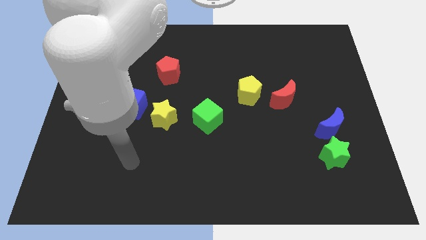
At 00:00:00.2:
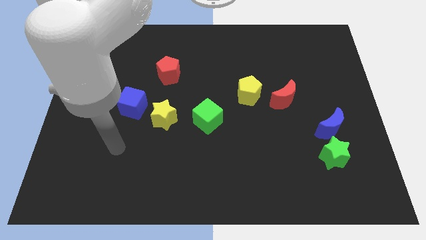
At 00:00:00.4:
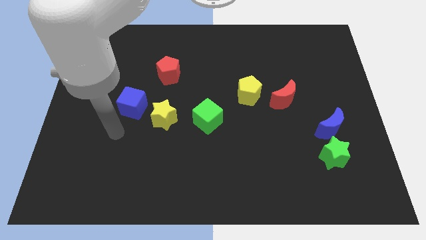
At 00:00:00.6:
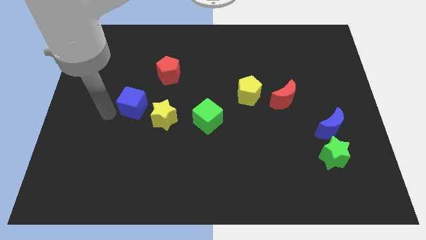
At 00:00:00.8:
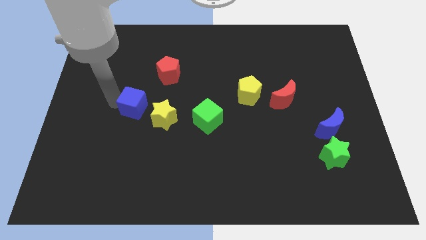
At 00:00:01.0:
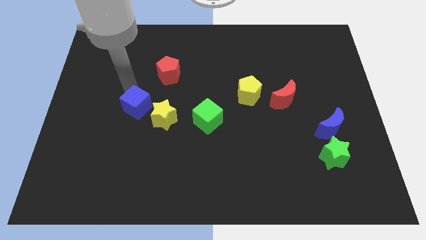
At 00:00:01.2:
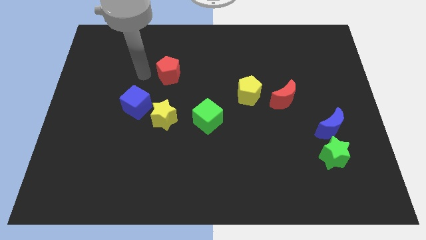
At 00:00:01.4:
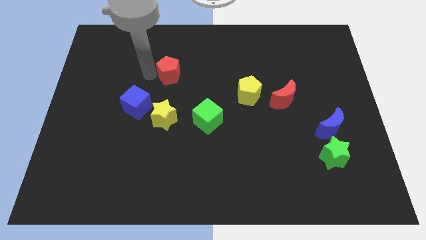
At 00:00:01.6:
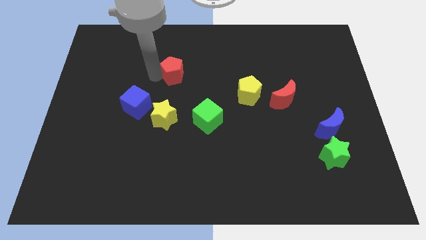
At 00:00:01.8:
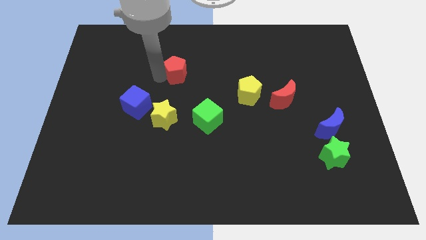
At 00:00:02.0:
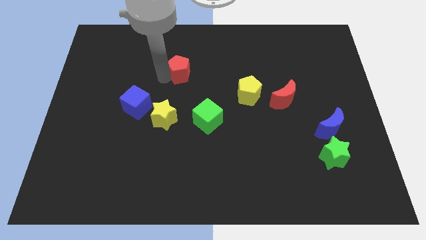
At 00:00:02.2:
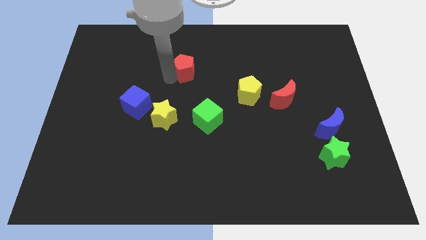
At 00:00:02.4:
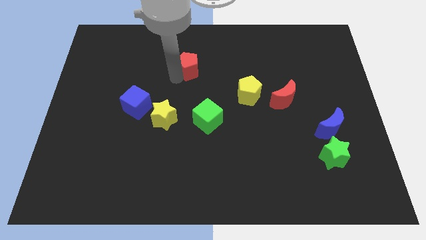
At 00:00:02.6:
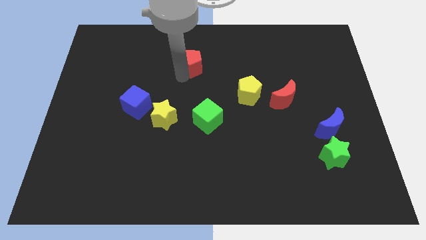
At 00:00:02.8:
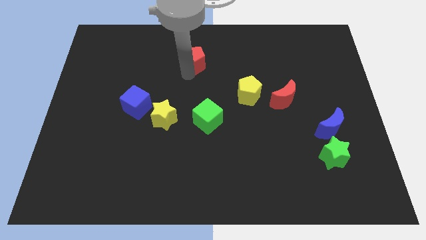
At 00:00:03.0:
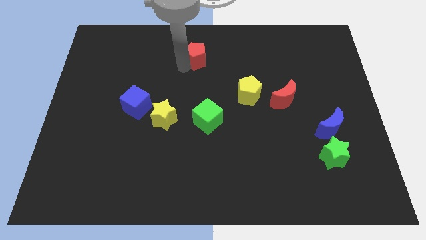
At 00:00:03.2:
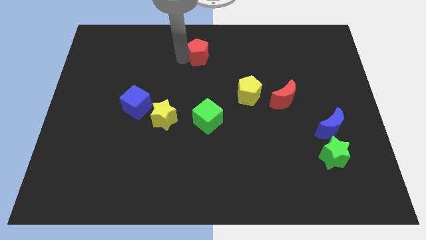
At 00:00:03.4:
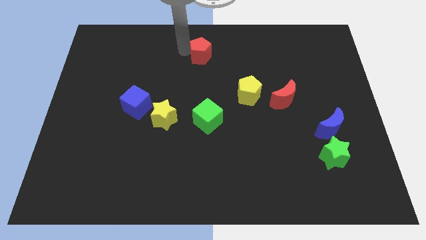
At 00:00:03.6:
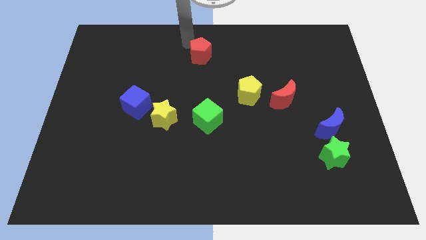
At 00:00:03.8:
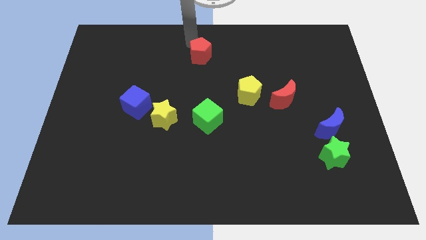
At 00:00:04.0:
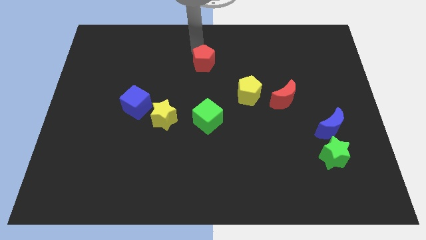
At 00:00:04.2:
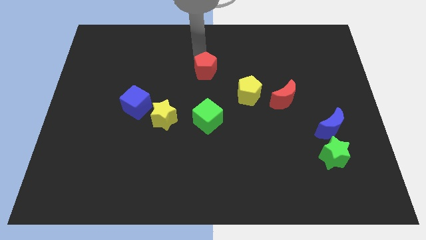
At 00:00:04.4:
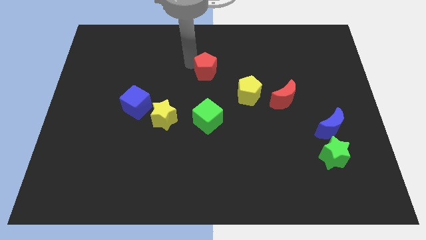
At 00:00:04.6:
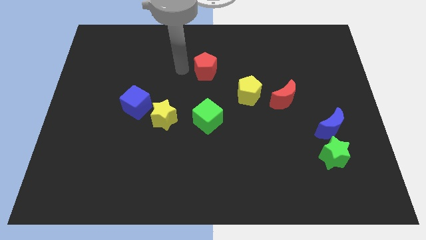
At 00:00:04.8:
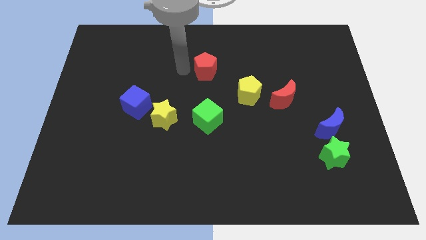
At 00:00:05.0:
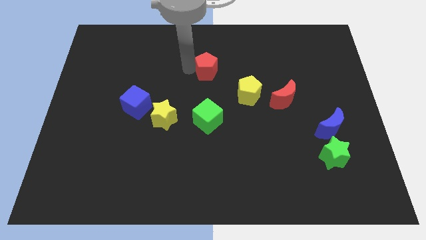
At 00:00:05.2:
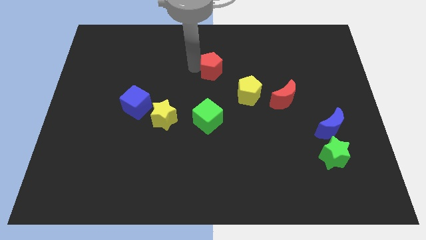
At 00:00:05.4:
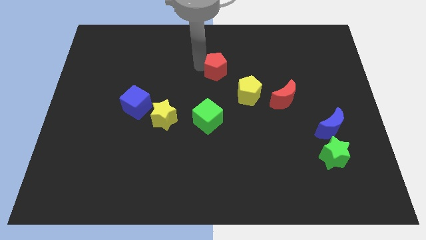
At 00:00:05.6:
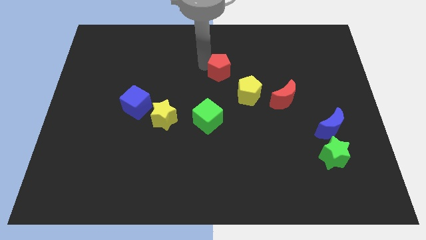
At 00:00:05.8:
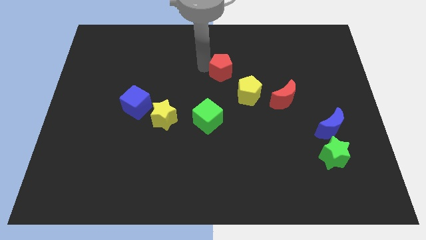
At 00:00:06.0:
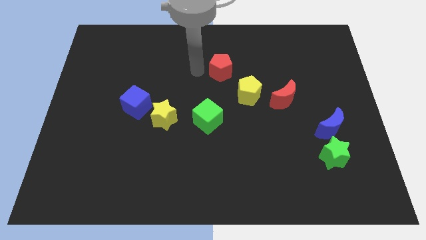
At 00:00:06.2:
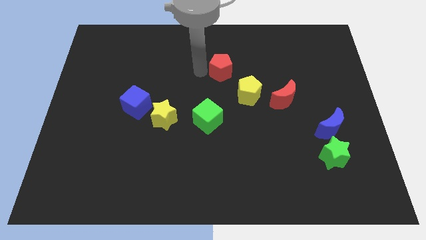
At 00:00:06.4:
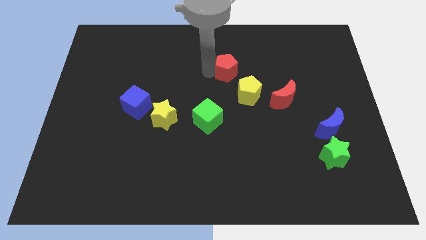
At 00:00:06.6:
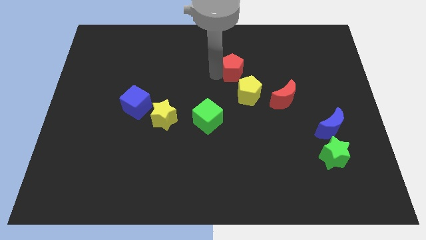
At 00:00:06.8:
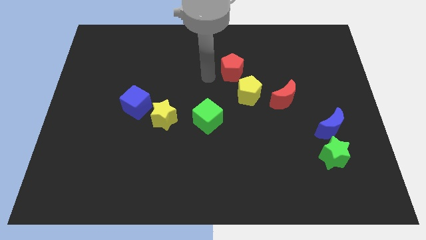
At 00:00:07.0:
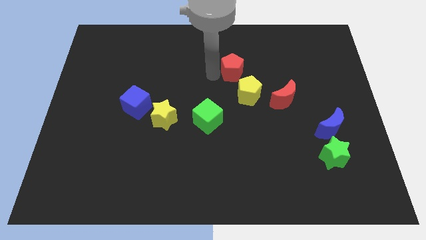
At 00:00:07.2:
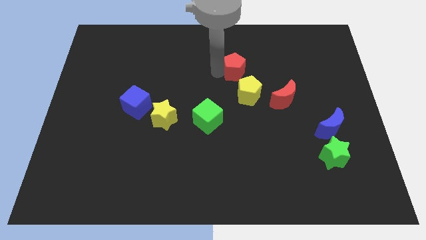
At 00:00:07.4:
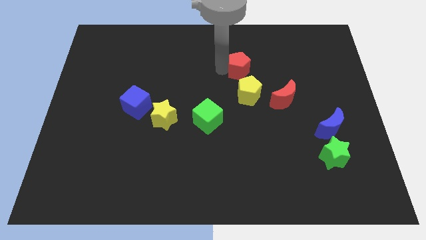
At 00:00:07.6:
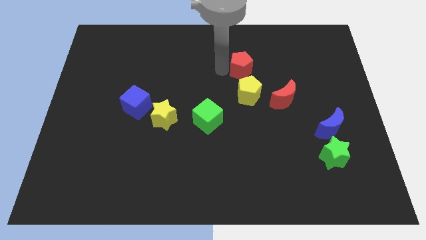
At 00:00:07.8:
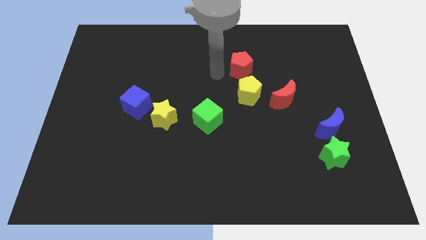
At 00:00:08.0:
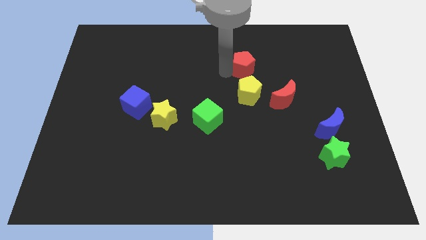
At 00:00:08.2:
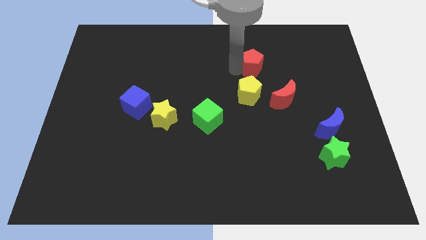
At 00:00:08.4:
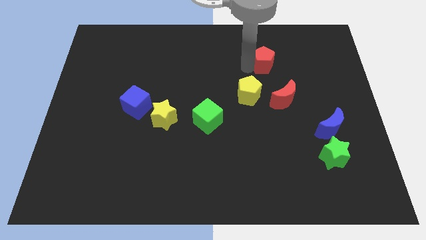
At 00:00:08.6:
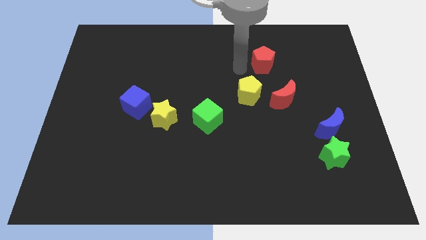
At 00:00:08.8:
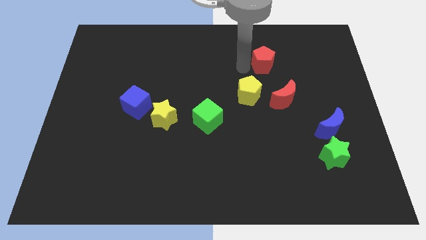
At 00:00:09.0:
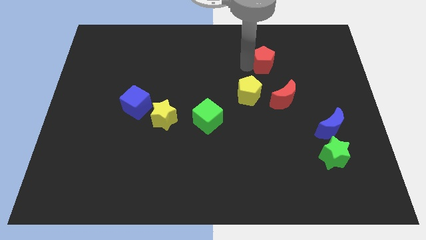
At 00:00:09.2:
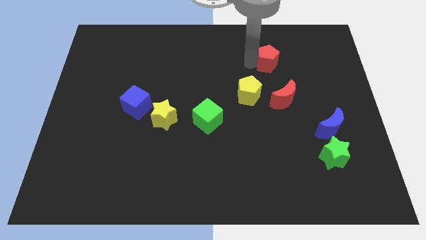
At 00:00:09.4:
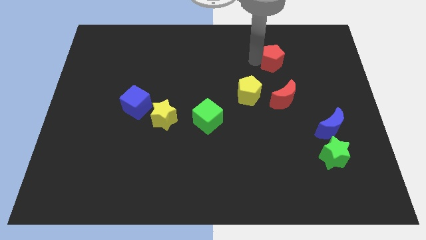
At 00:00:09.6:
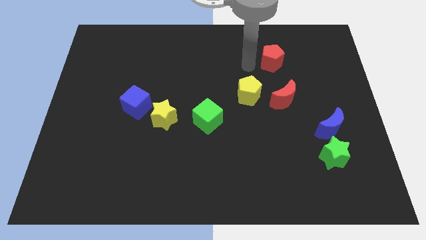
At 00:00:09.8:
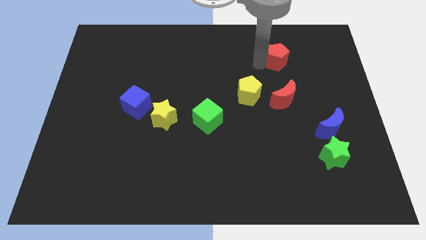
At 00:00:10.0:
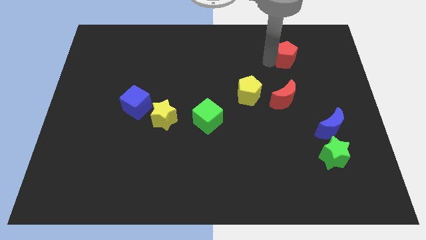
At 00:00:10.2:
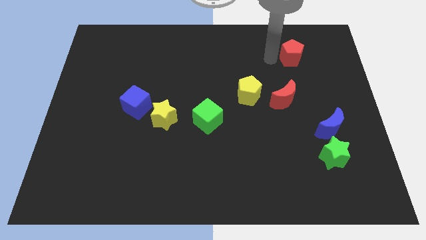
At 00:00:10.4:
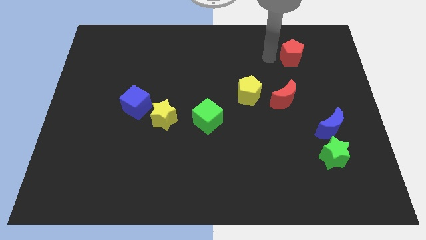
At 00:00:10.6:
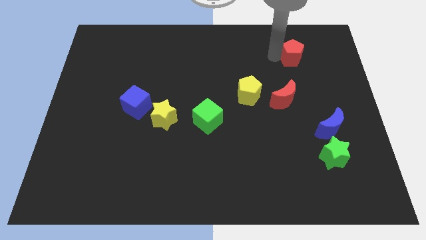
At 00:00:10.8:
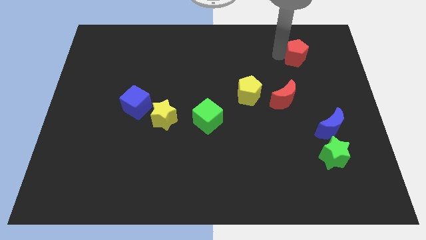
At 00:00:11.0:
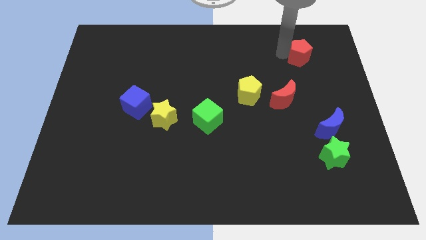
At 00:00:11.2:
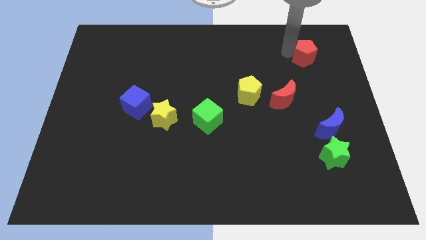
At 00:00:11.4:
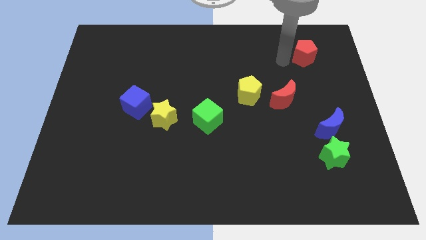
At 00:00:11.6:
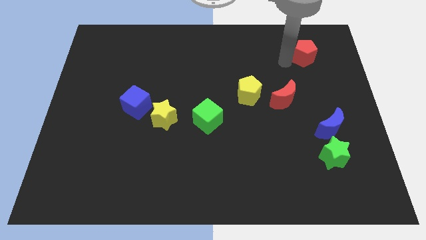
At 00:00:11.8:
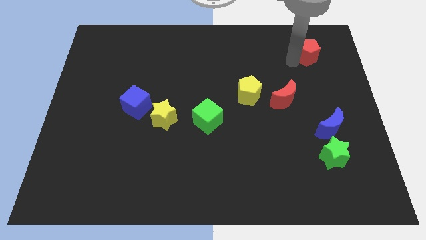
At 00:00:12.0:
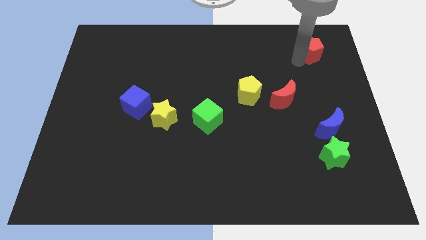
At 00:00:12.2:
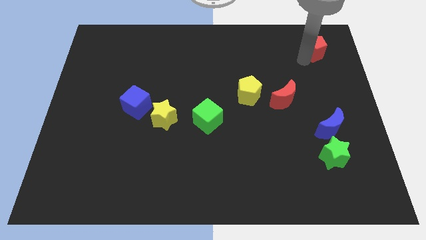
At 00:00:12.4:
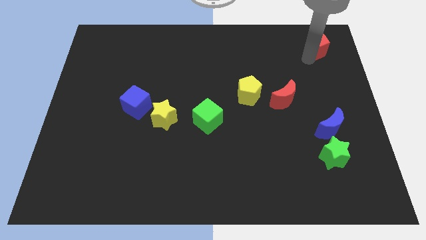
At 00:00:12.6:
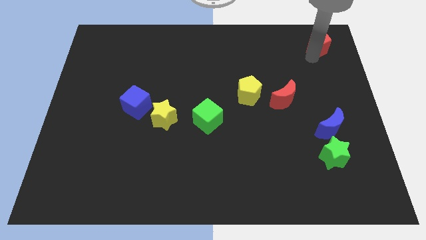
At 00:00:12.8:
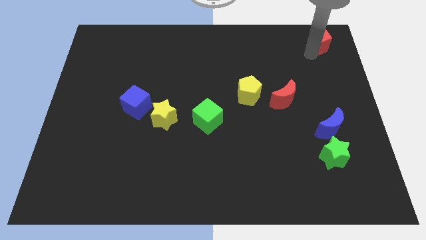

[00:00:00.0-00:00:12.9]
move the red pentagon to the top right corner
